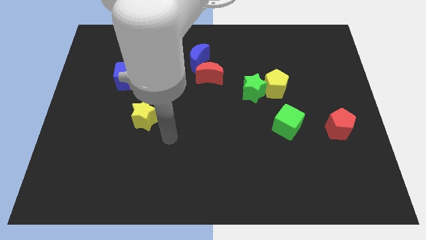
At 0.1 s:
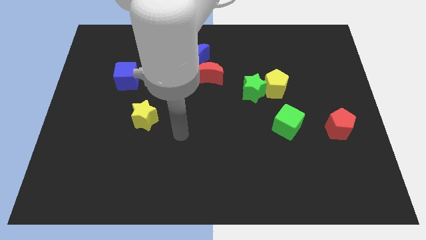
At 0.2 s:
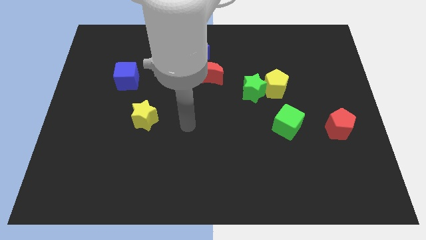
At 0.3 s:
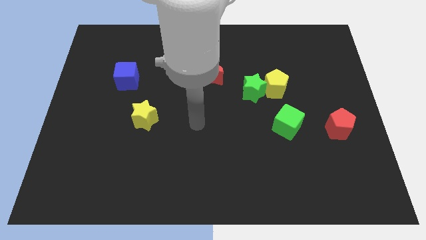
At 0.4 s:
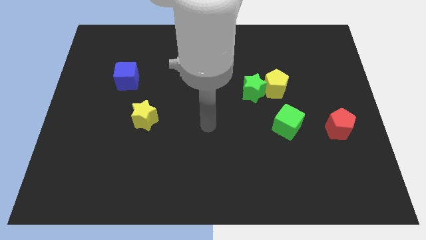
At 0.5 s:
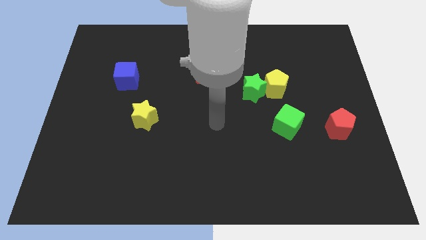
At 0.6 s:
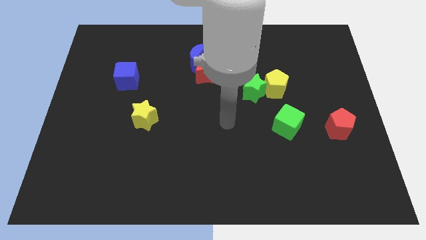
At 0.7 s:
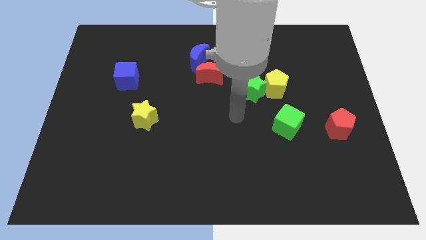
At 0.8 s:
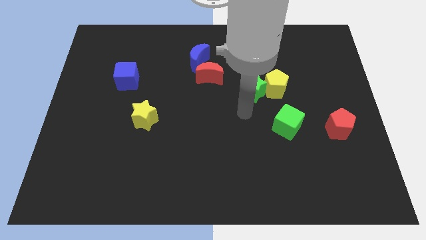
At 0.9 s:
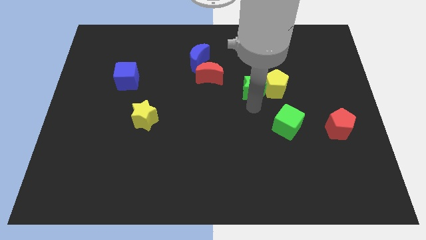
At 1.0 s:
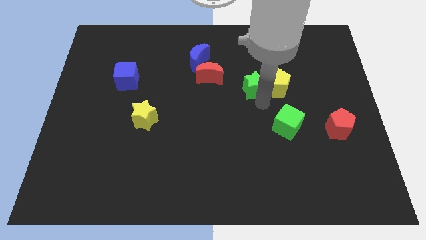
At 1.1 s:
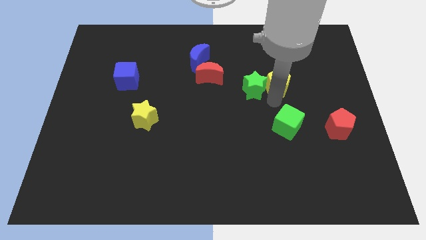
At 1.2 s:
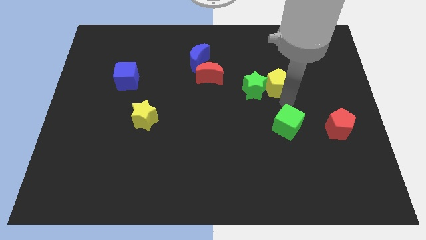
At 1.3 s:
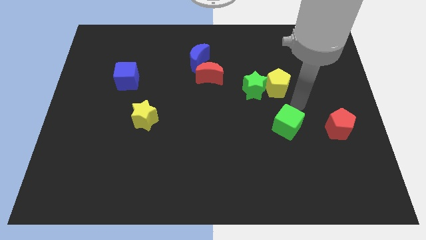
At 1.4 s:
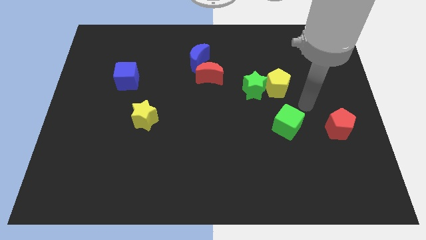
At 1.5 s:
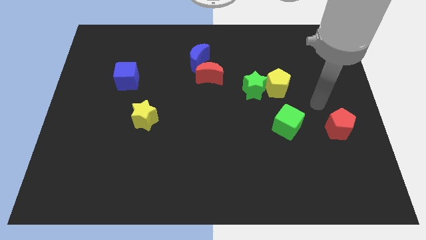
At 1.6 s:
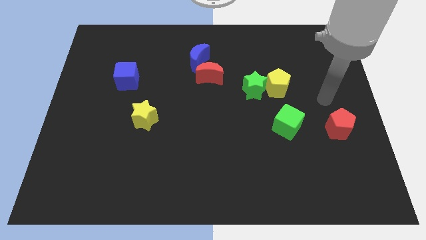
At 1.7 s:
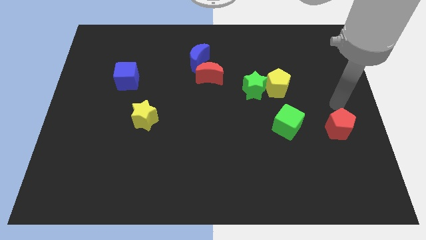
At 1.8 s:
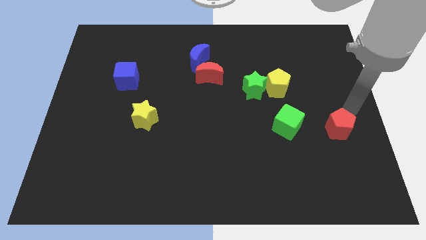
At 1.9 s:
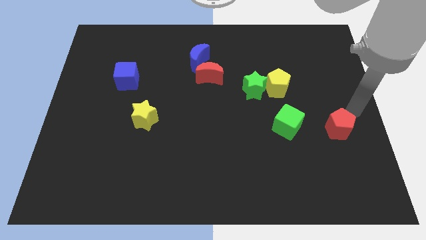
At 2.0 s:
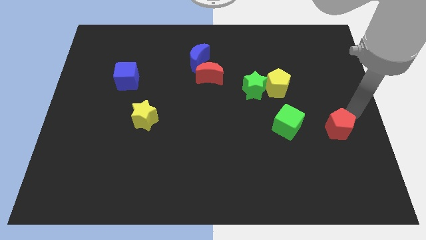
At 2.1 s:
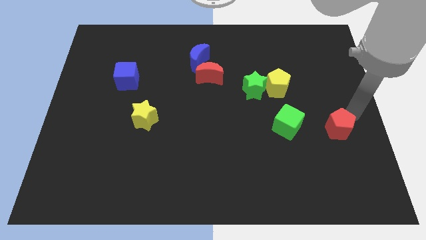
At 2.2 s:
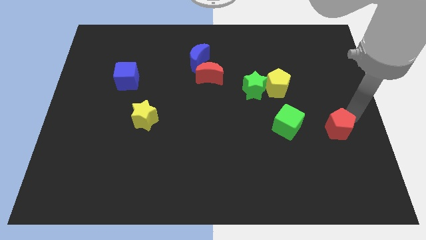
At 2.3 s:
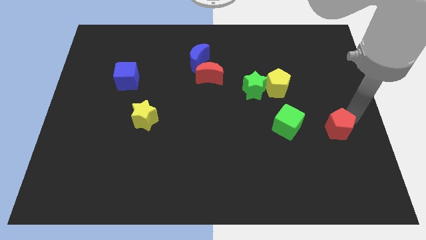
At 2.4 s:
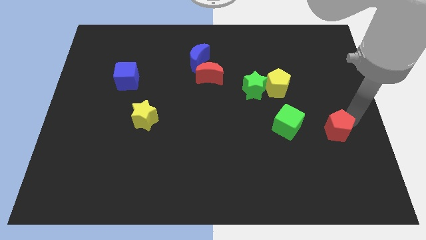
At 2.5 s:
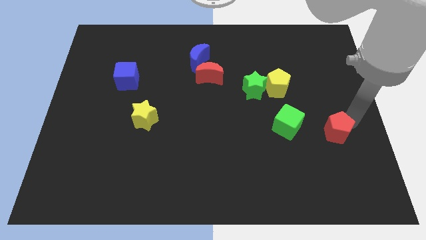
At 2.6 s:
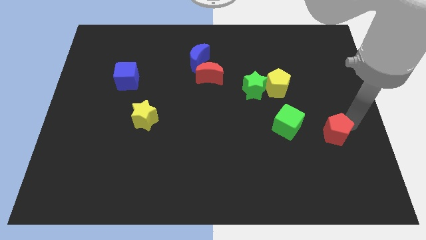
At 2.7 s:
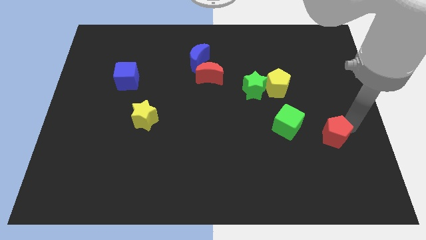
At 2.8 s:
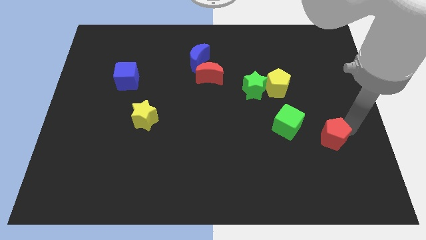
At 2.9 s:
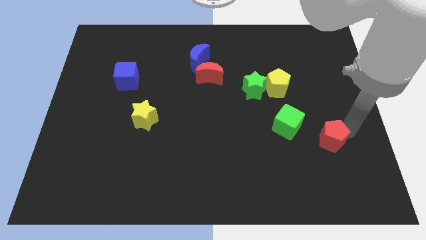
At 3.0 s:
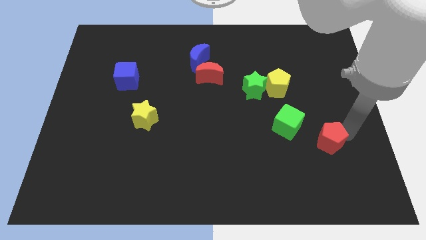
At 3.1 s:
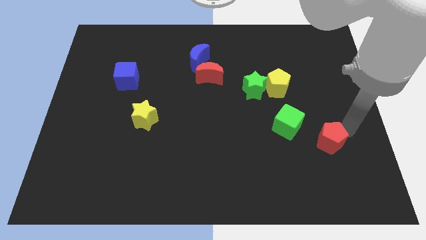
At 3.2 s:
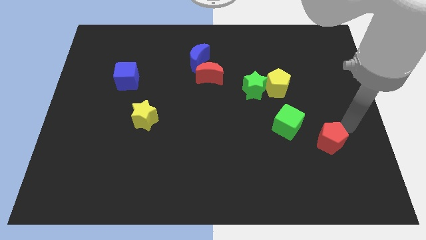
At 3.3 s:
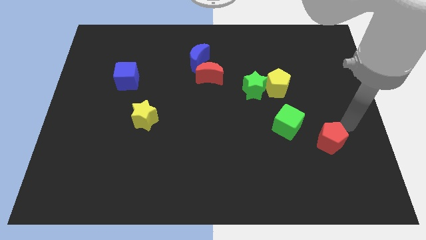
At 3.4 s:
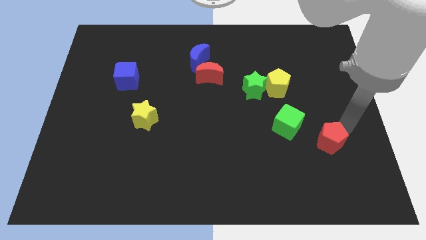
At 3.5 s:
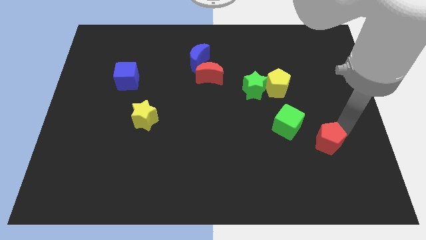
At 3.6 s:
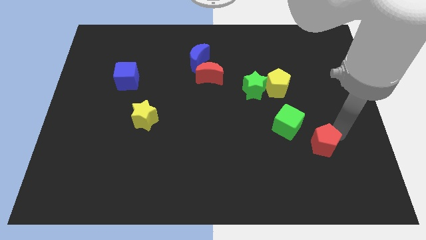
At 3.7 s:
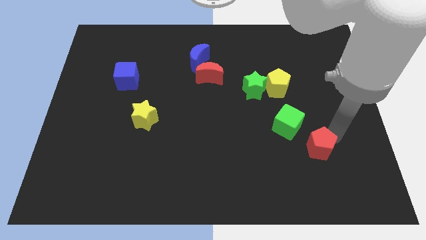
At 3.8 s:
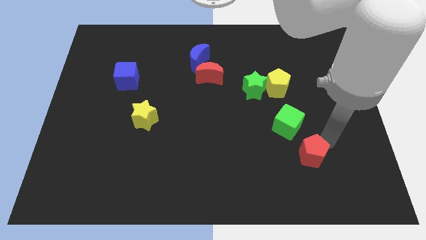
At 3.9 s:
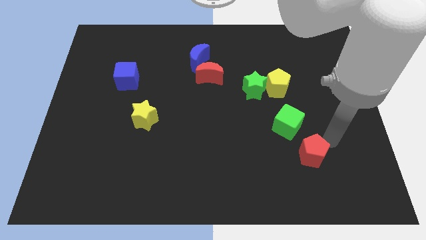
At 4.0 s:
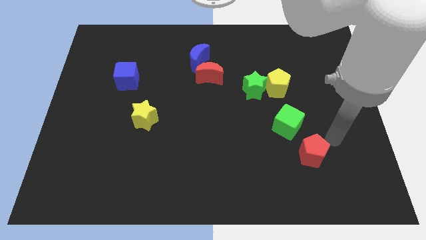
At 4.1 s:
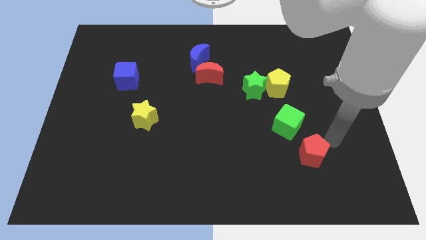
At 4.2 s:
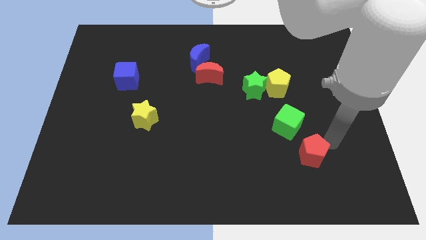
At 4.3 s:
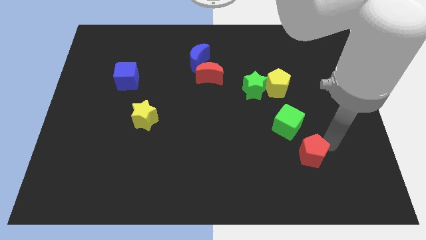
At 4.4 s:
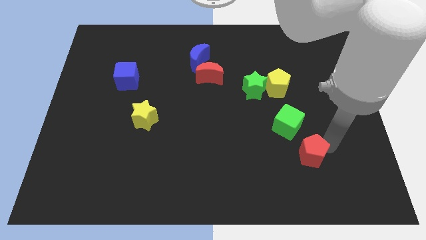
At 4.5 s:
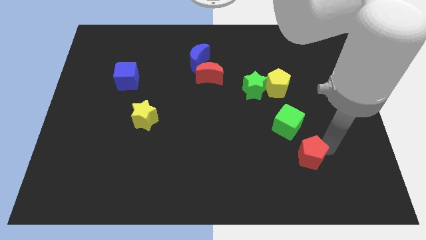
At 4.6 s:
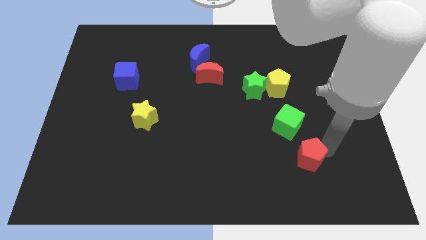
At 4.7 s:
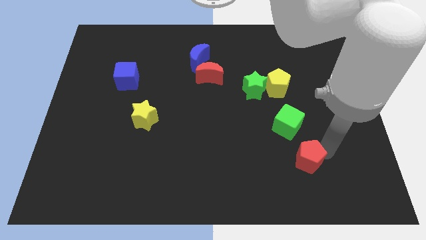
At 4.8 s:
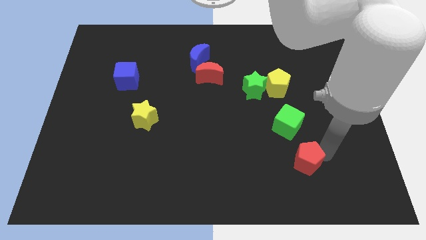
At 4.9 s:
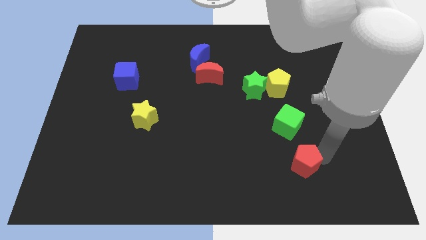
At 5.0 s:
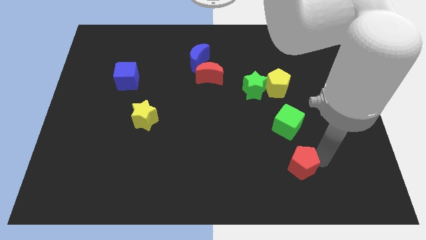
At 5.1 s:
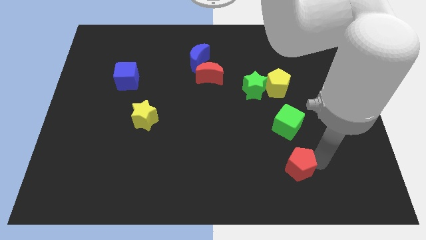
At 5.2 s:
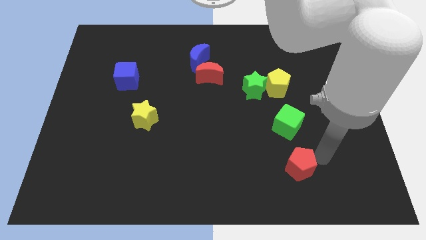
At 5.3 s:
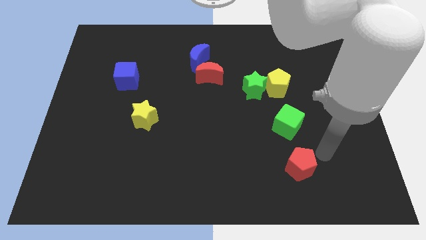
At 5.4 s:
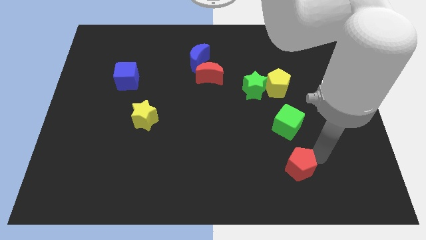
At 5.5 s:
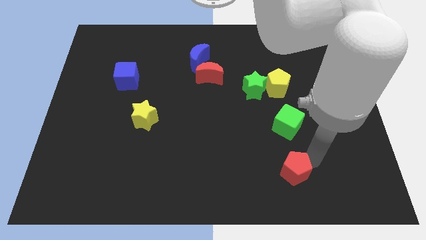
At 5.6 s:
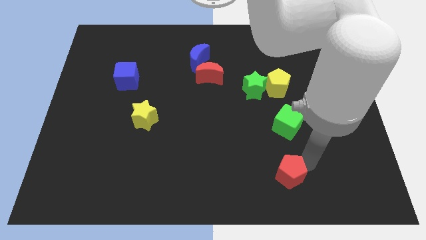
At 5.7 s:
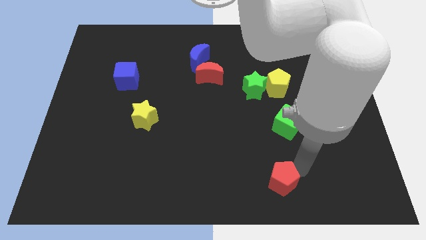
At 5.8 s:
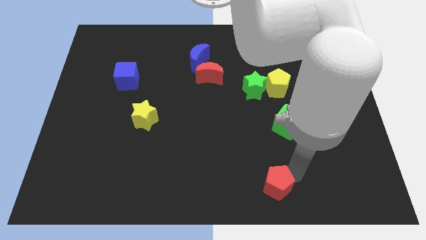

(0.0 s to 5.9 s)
put the red pentagon to the bottom side

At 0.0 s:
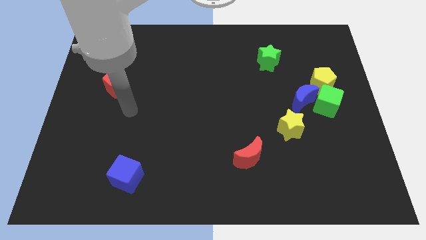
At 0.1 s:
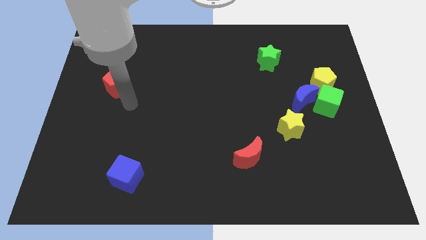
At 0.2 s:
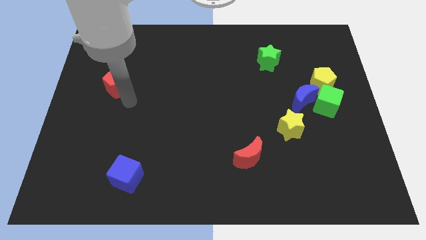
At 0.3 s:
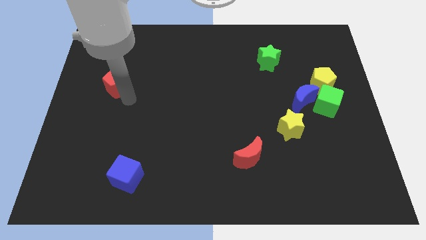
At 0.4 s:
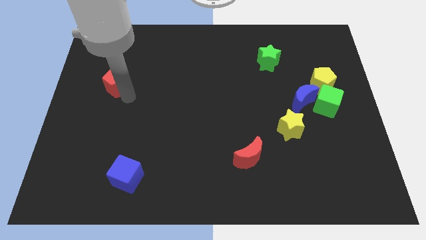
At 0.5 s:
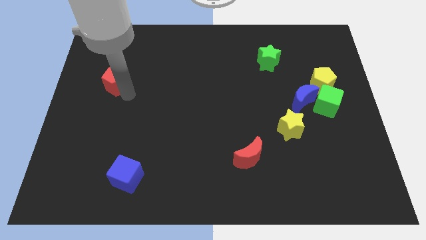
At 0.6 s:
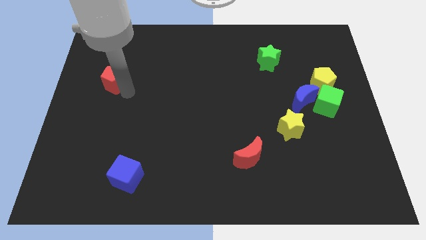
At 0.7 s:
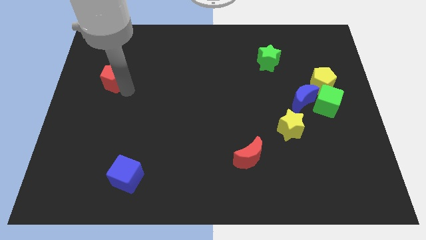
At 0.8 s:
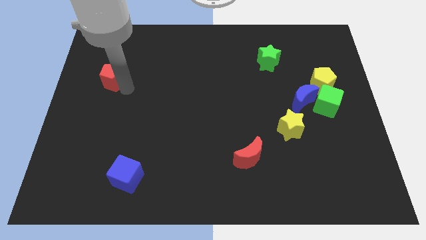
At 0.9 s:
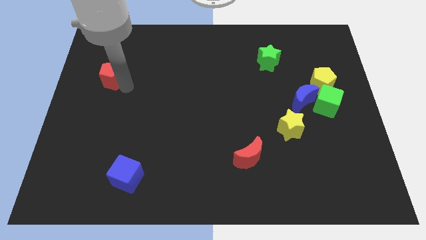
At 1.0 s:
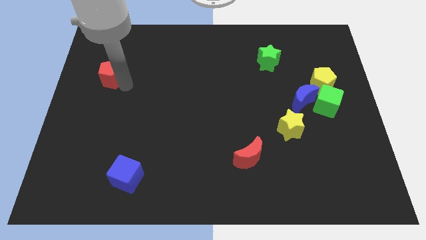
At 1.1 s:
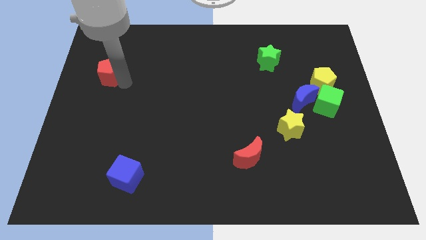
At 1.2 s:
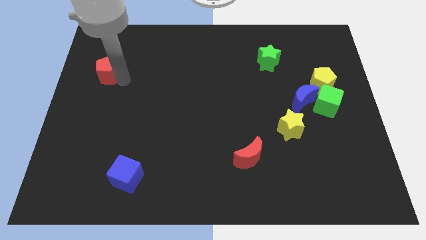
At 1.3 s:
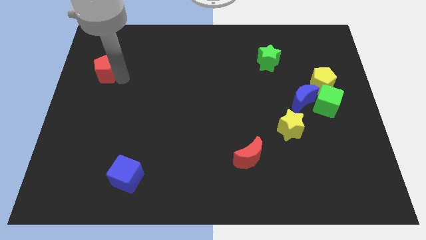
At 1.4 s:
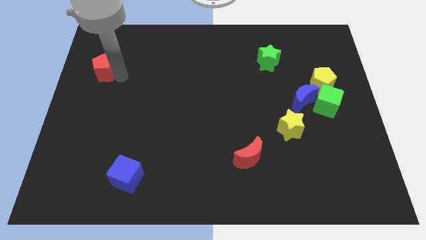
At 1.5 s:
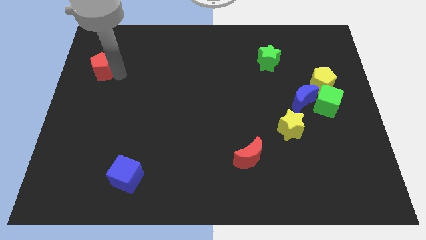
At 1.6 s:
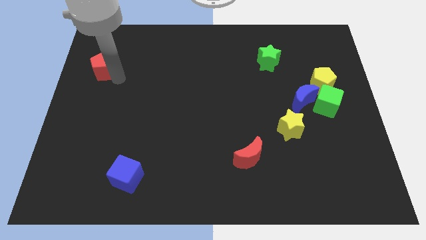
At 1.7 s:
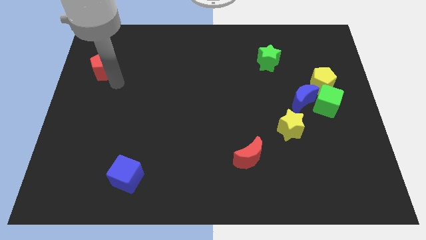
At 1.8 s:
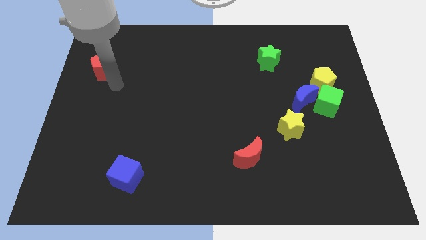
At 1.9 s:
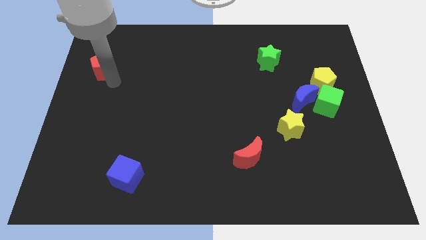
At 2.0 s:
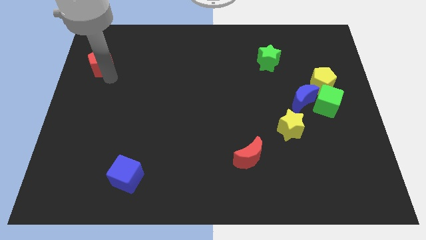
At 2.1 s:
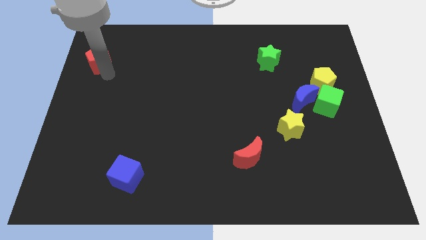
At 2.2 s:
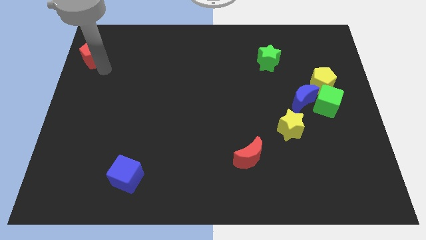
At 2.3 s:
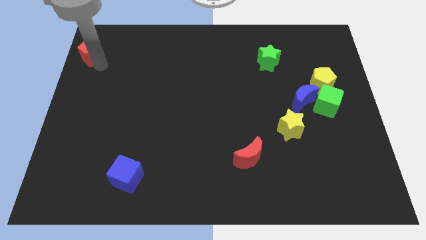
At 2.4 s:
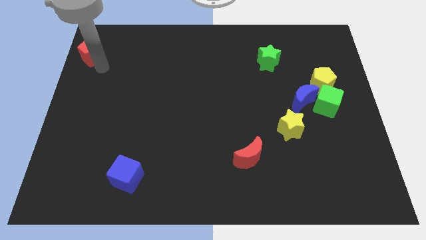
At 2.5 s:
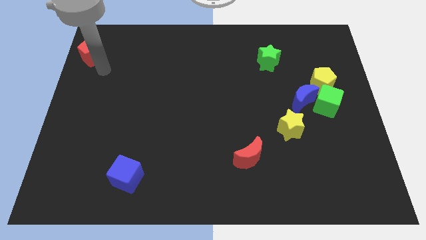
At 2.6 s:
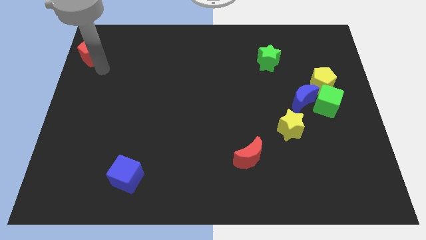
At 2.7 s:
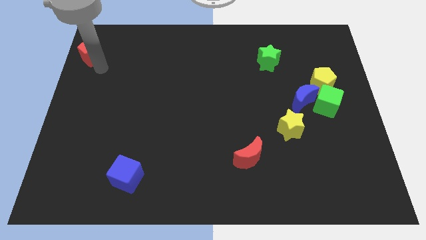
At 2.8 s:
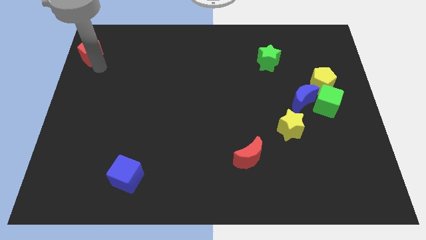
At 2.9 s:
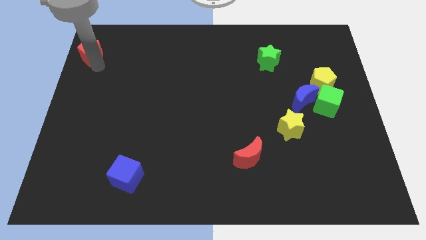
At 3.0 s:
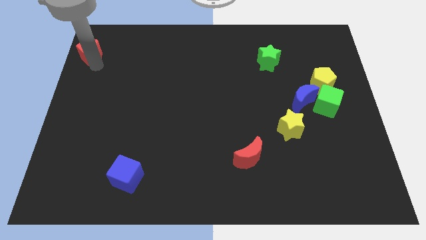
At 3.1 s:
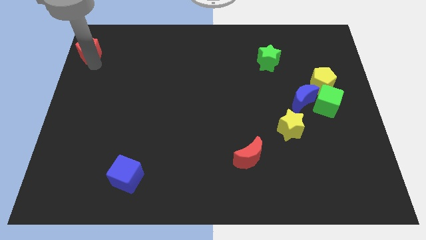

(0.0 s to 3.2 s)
slide the red pentagon to the top left corner
